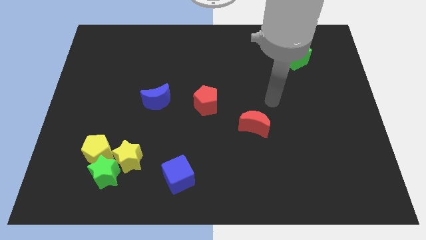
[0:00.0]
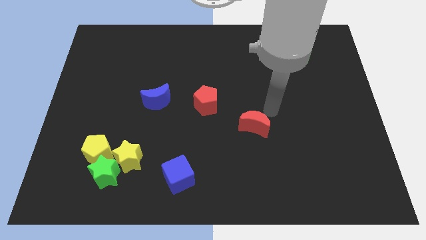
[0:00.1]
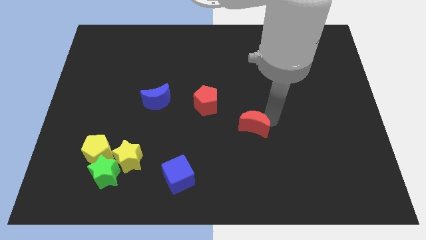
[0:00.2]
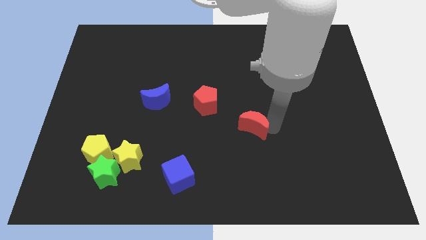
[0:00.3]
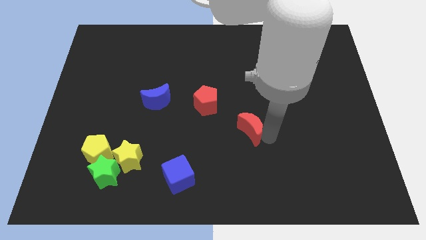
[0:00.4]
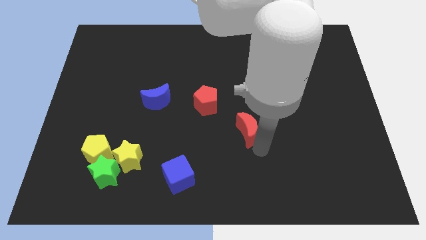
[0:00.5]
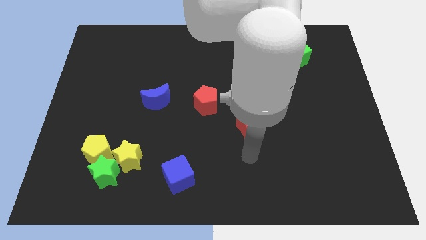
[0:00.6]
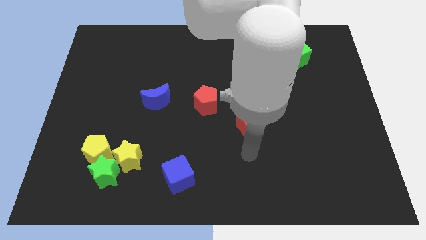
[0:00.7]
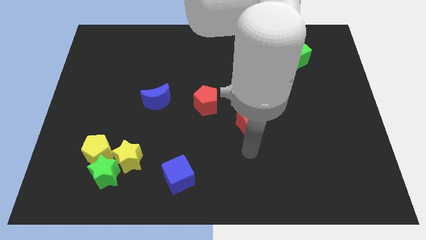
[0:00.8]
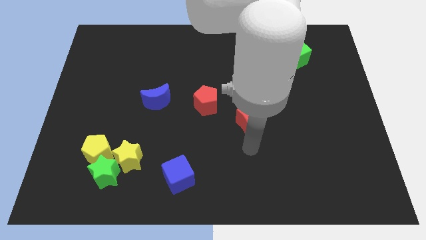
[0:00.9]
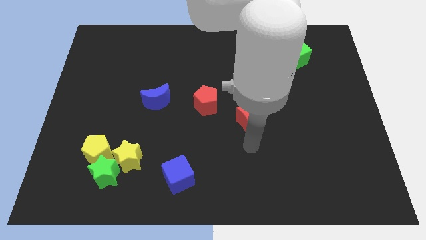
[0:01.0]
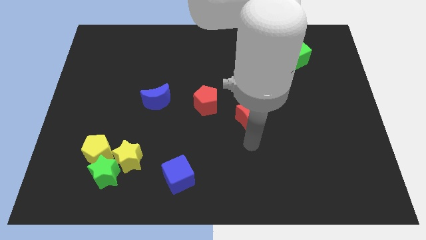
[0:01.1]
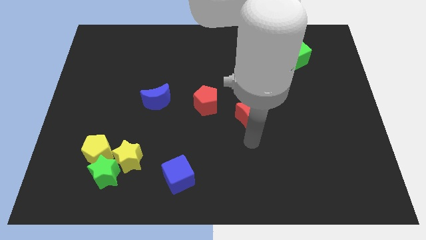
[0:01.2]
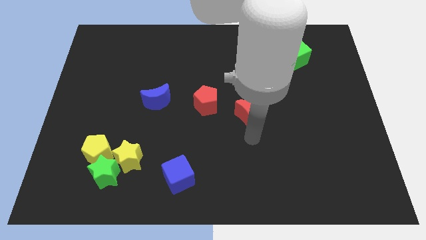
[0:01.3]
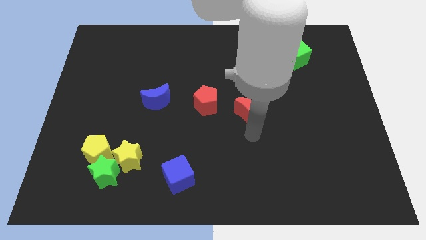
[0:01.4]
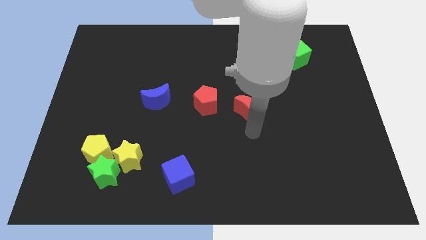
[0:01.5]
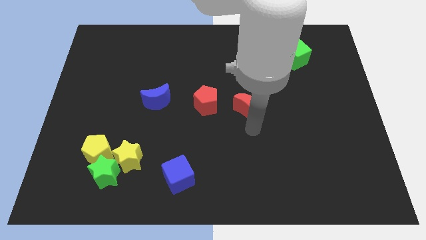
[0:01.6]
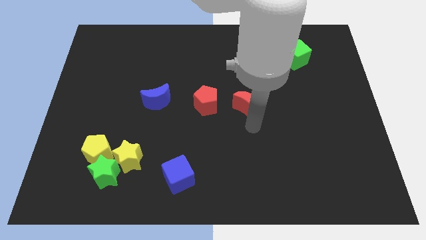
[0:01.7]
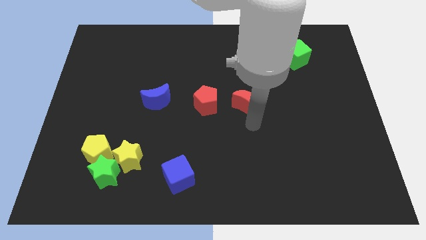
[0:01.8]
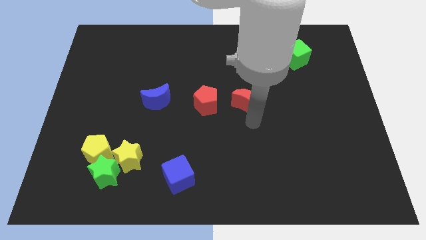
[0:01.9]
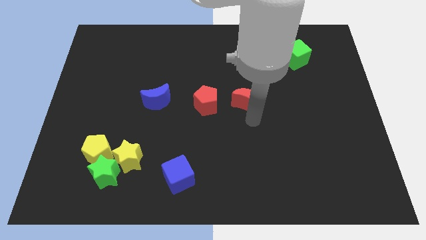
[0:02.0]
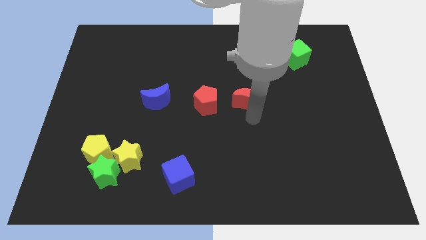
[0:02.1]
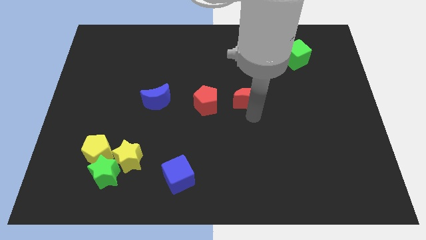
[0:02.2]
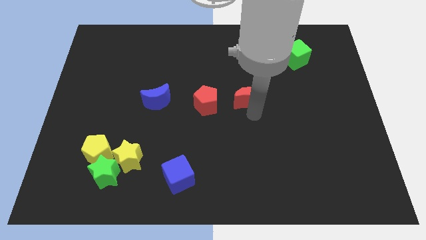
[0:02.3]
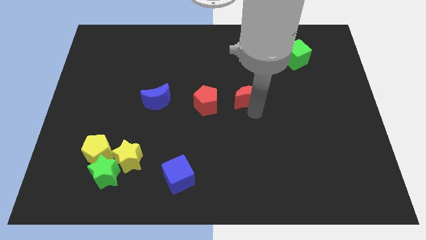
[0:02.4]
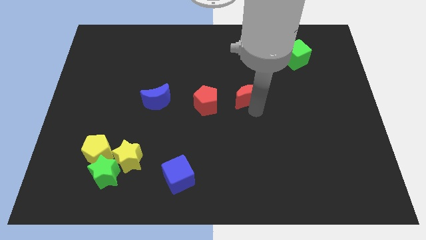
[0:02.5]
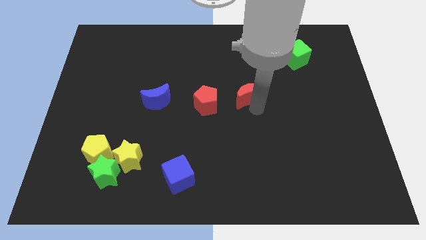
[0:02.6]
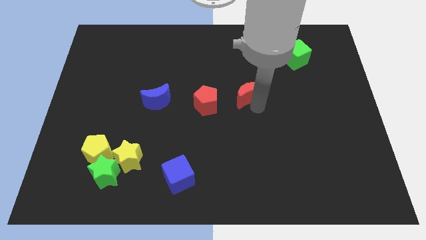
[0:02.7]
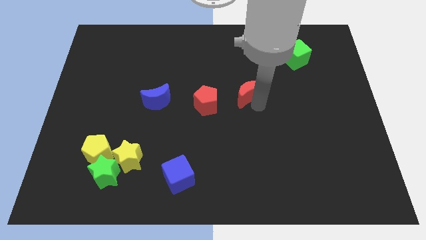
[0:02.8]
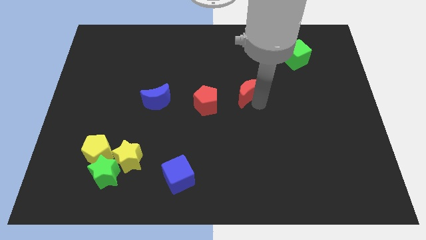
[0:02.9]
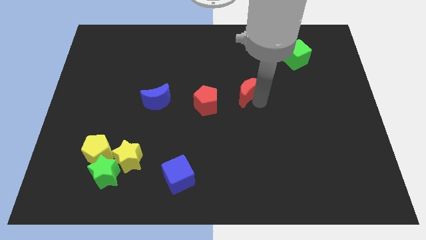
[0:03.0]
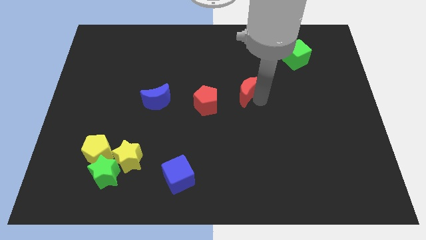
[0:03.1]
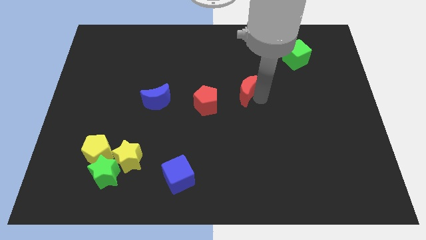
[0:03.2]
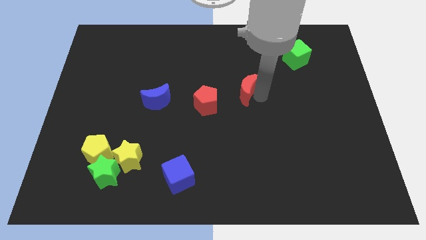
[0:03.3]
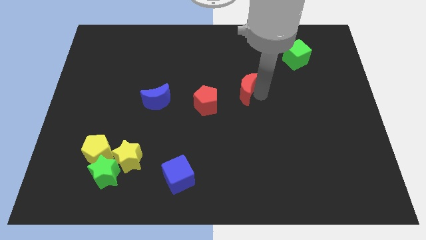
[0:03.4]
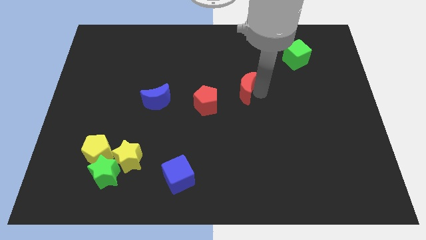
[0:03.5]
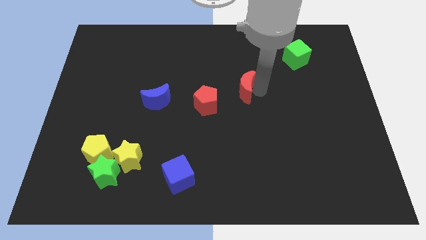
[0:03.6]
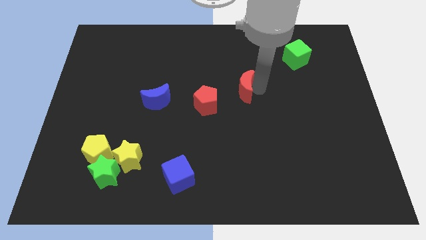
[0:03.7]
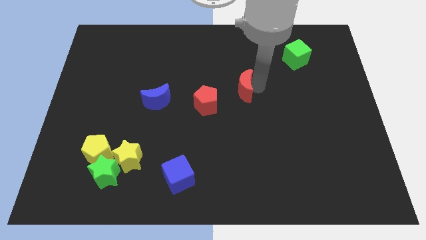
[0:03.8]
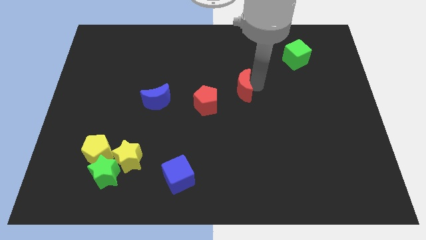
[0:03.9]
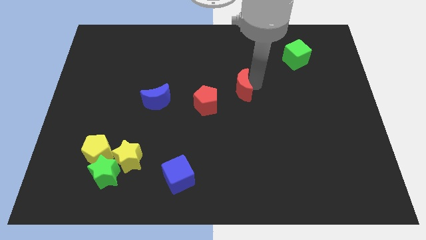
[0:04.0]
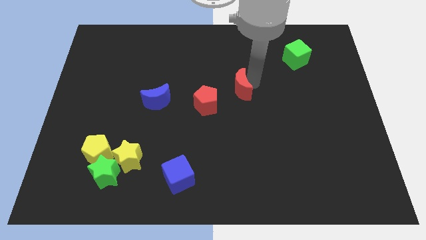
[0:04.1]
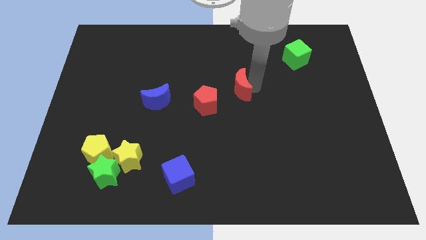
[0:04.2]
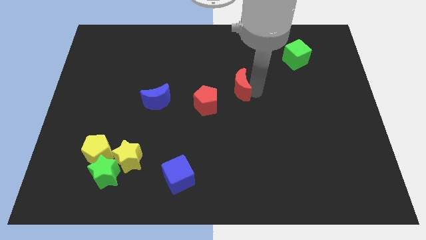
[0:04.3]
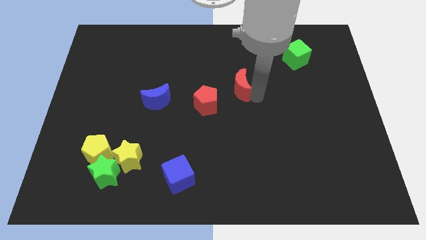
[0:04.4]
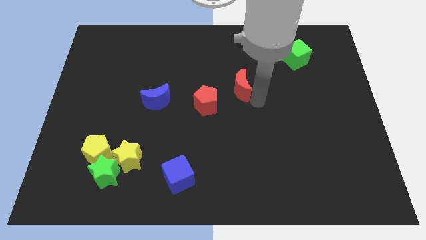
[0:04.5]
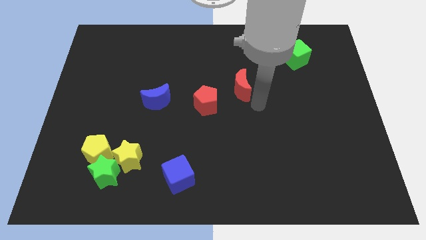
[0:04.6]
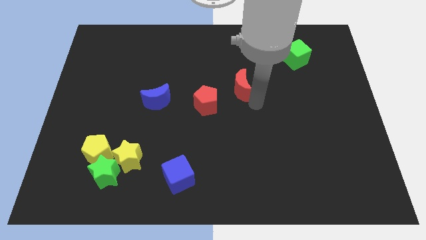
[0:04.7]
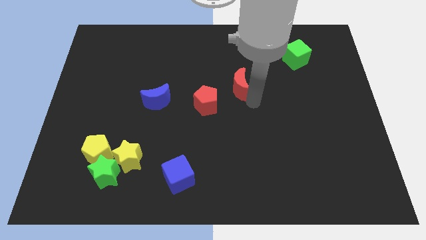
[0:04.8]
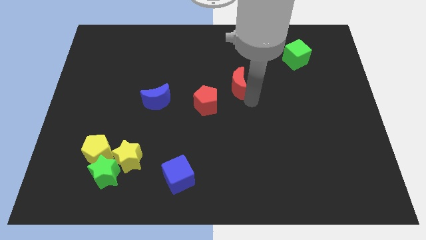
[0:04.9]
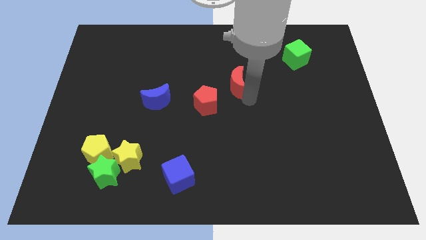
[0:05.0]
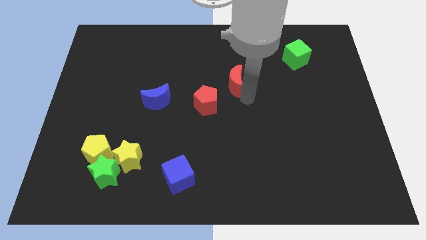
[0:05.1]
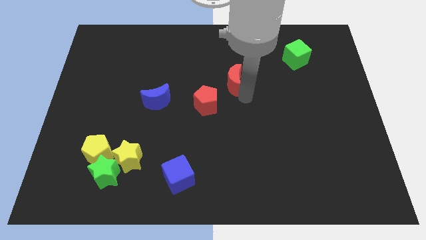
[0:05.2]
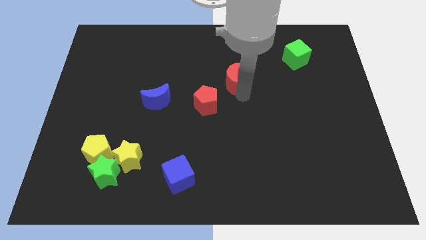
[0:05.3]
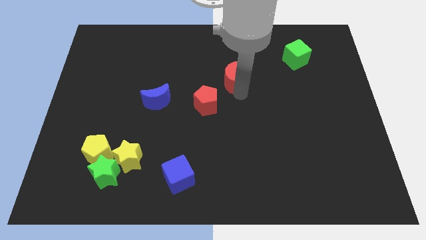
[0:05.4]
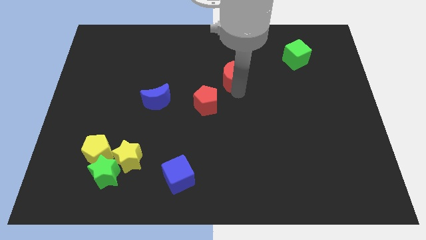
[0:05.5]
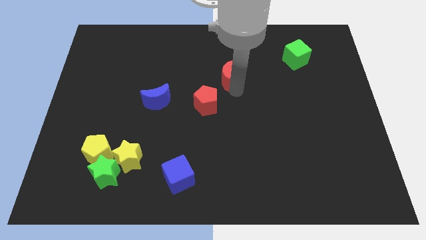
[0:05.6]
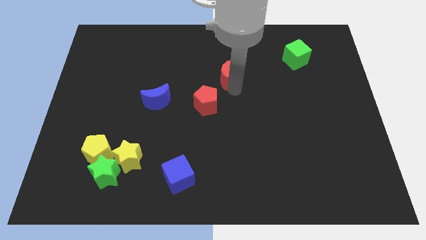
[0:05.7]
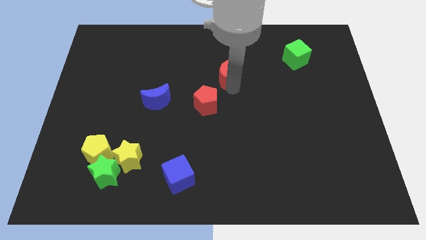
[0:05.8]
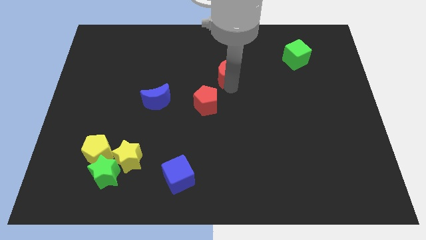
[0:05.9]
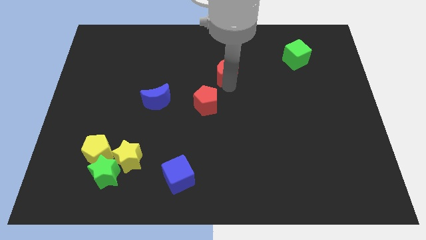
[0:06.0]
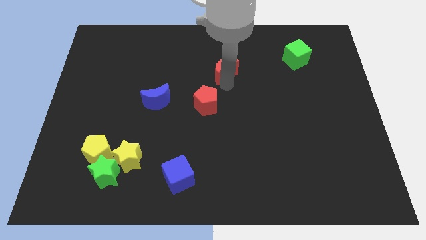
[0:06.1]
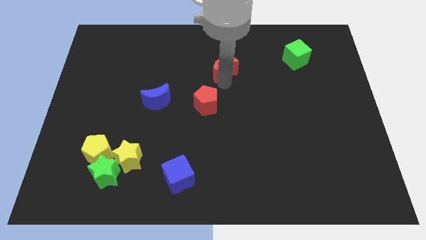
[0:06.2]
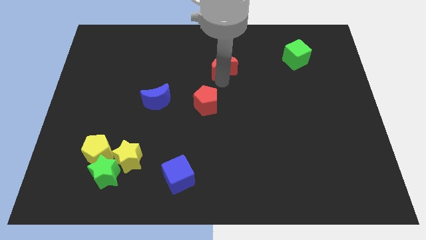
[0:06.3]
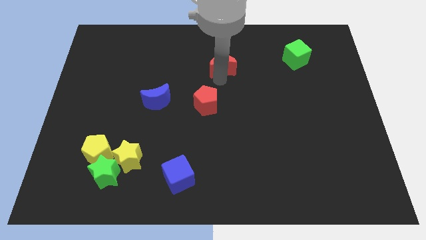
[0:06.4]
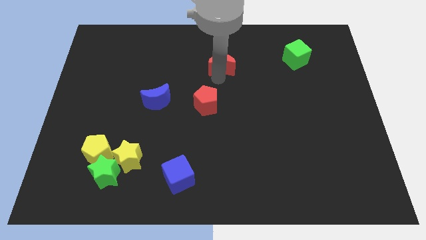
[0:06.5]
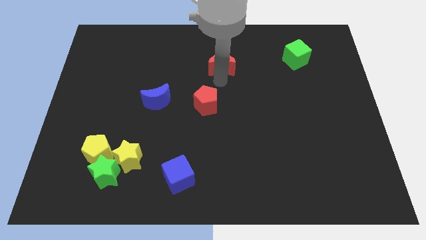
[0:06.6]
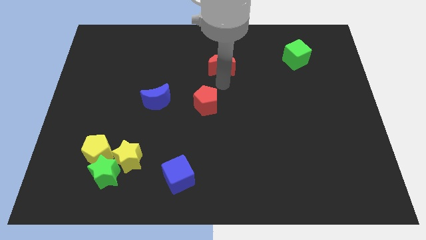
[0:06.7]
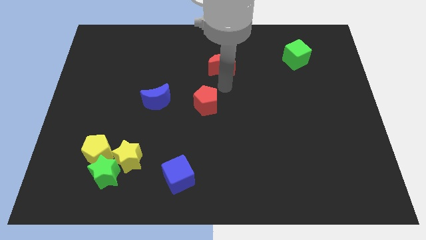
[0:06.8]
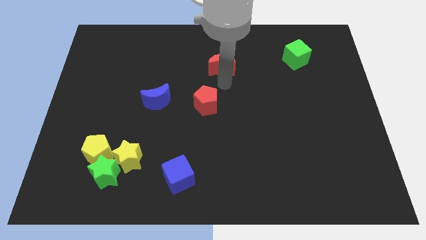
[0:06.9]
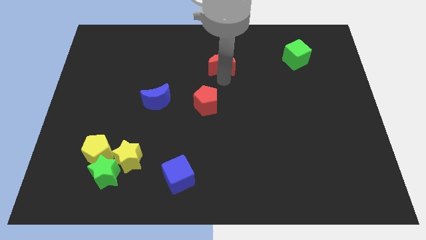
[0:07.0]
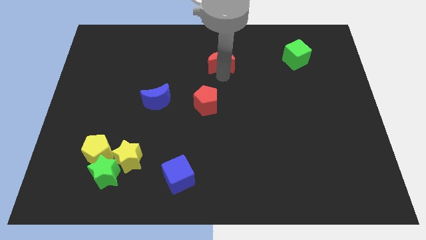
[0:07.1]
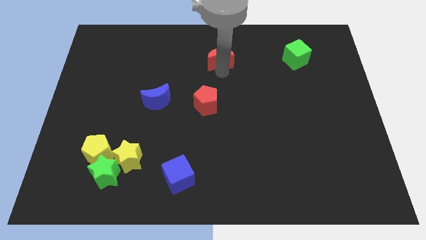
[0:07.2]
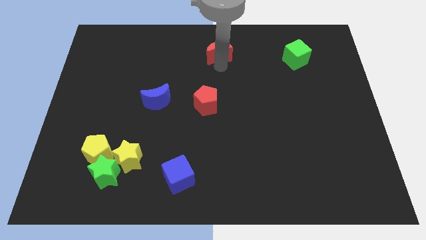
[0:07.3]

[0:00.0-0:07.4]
slide the red moon to the towards your base
